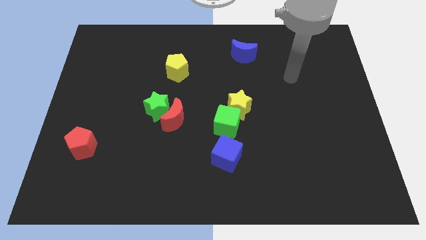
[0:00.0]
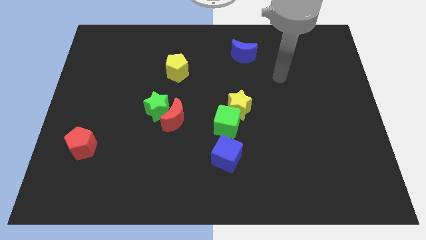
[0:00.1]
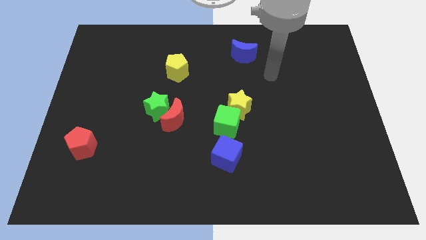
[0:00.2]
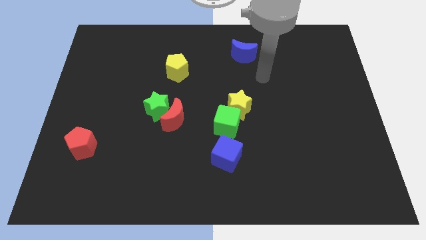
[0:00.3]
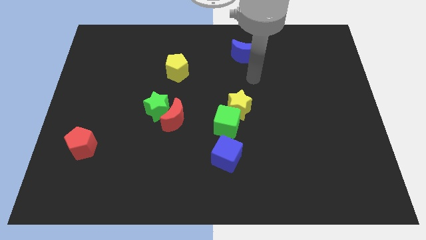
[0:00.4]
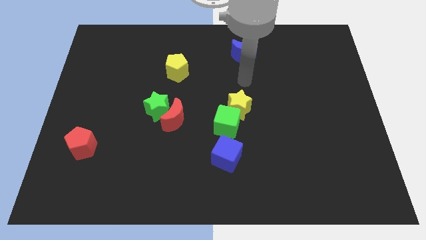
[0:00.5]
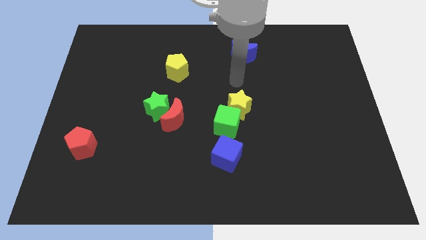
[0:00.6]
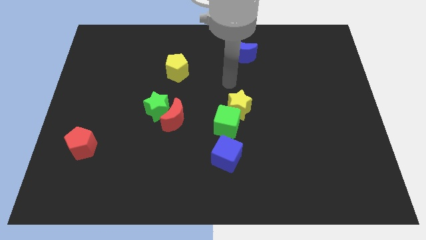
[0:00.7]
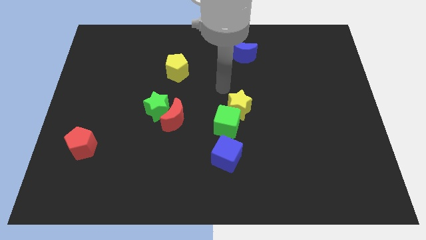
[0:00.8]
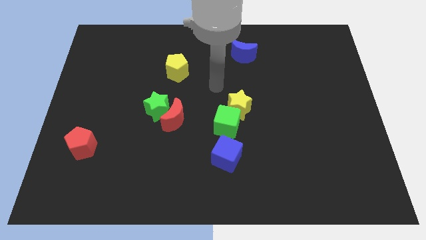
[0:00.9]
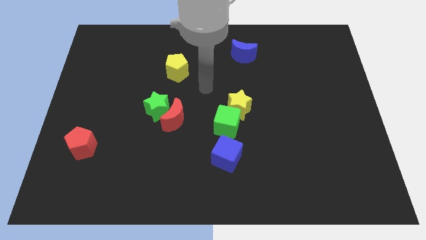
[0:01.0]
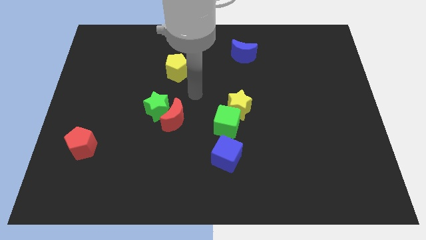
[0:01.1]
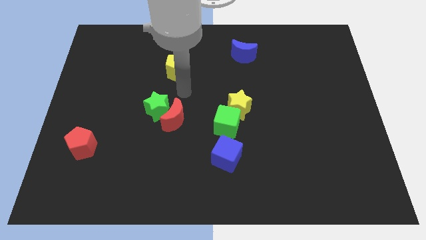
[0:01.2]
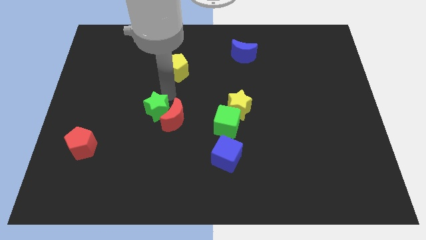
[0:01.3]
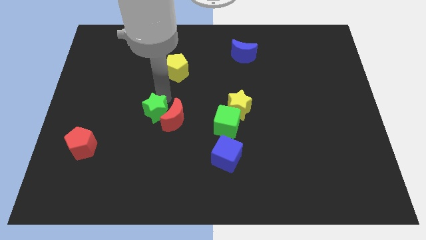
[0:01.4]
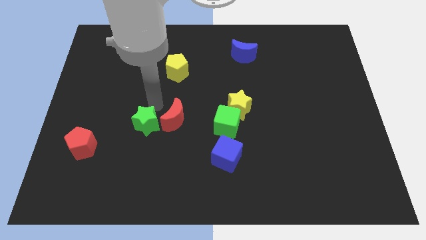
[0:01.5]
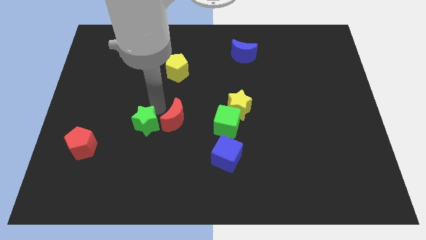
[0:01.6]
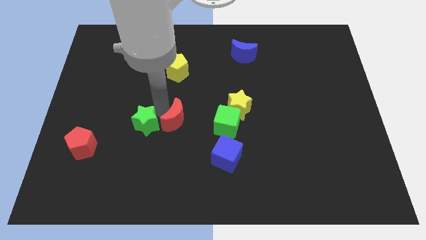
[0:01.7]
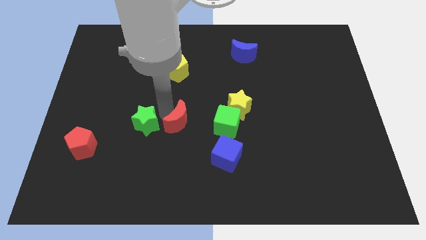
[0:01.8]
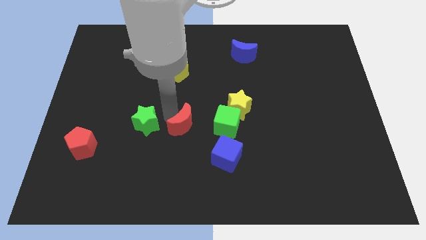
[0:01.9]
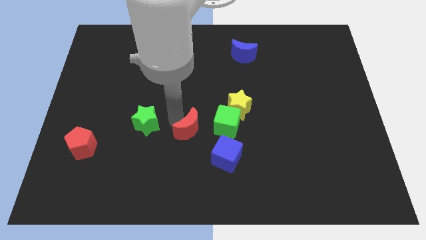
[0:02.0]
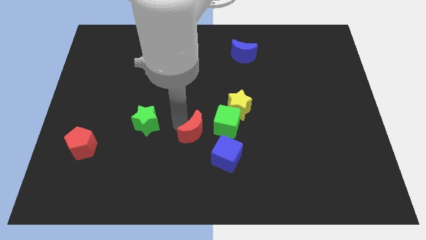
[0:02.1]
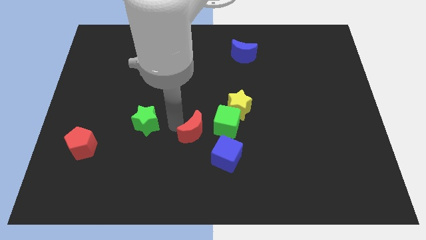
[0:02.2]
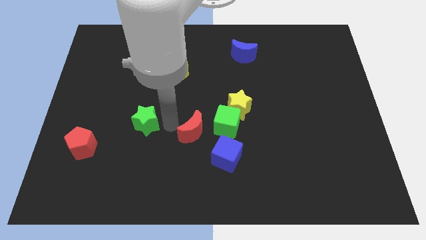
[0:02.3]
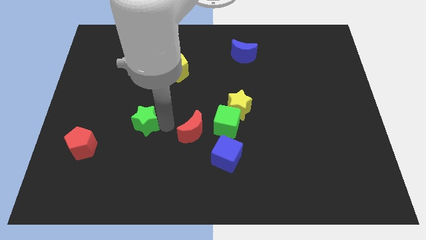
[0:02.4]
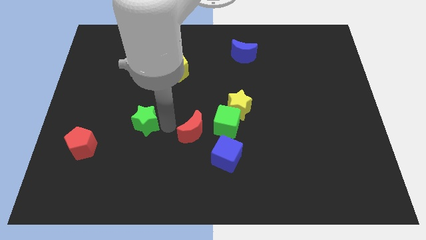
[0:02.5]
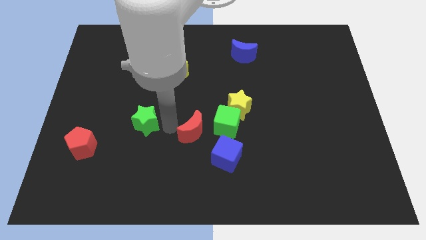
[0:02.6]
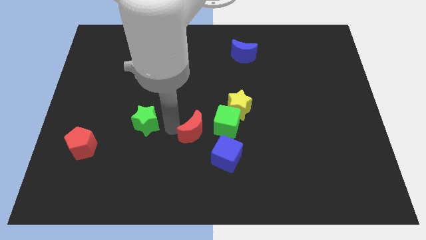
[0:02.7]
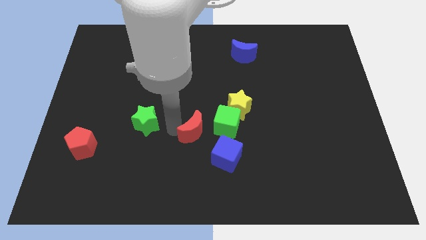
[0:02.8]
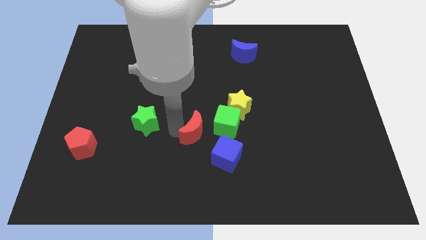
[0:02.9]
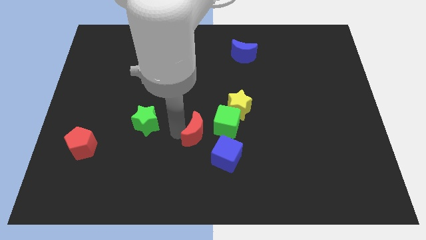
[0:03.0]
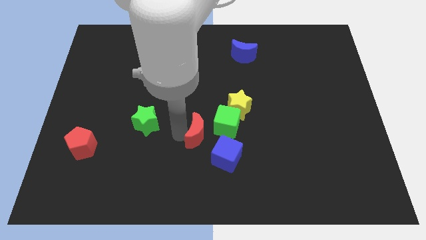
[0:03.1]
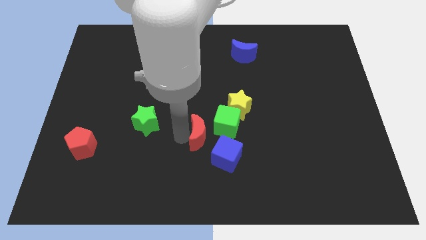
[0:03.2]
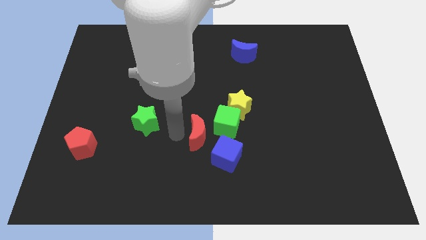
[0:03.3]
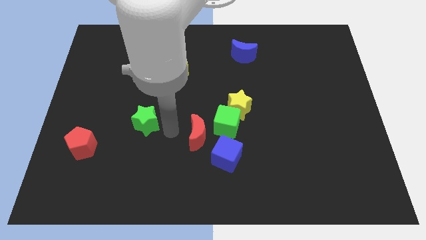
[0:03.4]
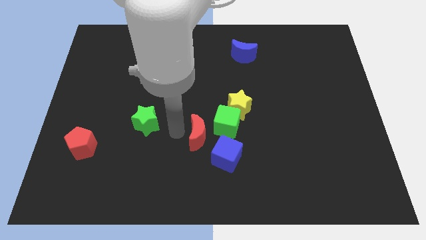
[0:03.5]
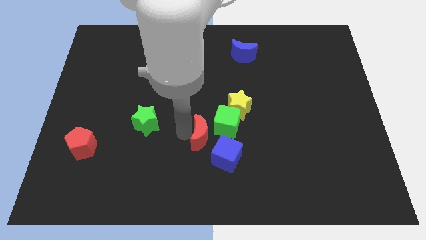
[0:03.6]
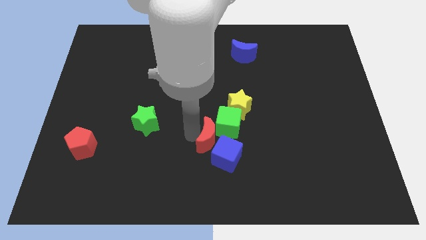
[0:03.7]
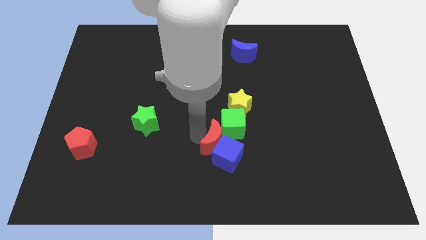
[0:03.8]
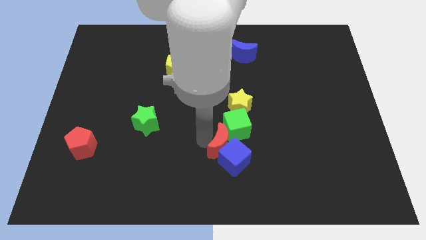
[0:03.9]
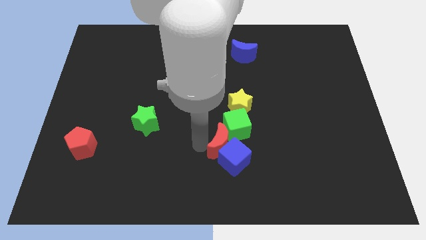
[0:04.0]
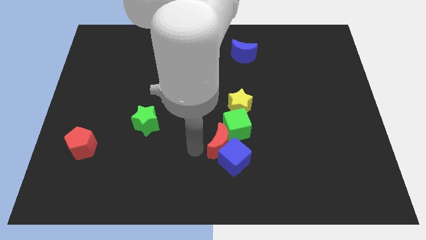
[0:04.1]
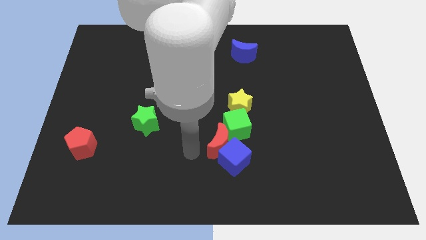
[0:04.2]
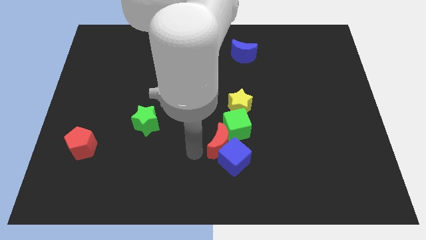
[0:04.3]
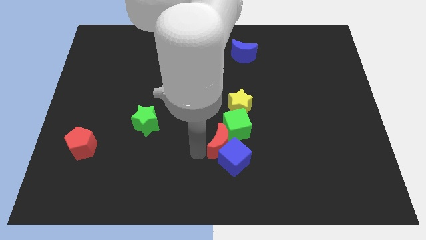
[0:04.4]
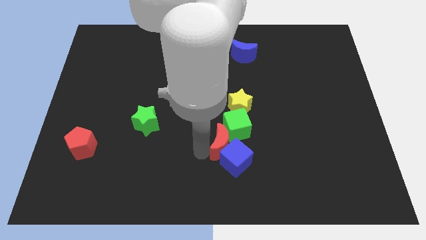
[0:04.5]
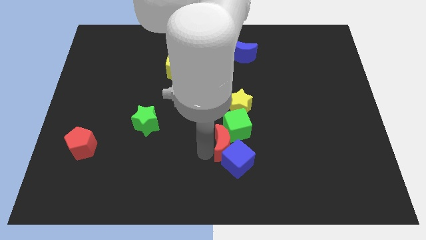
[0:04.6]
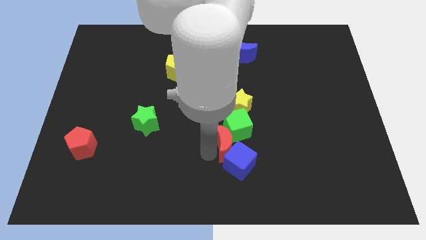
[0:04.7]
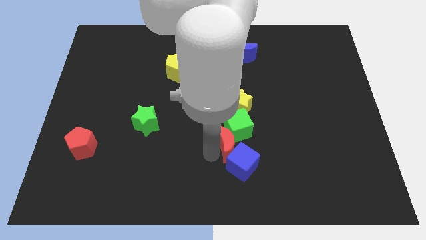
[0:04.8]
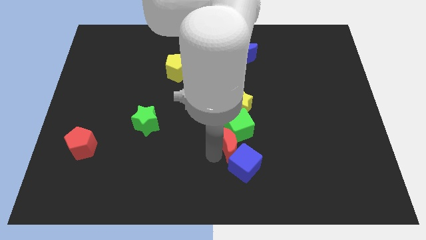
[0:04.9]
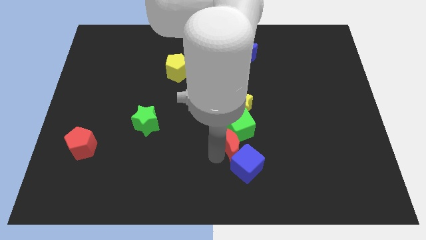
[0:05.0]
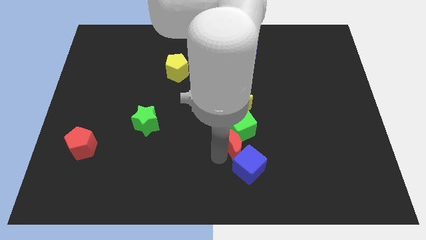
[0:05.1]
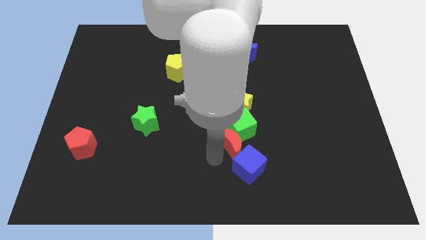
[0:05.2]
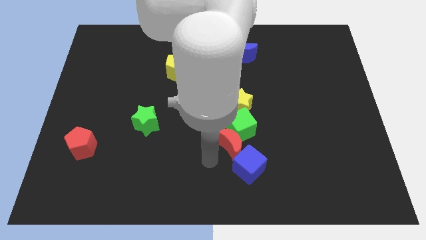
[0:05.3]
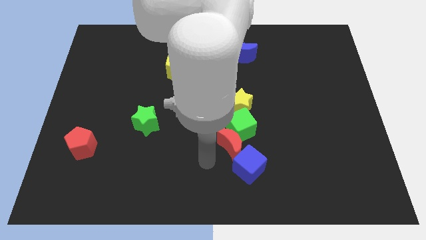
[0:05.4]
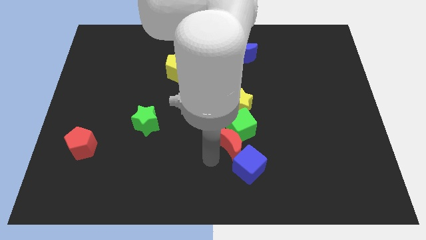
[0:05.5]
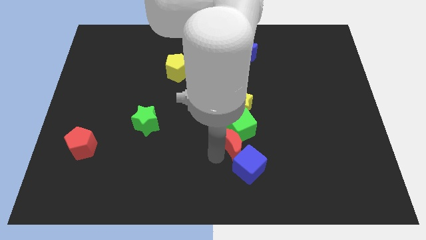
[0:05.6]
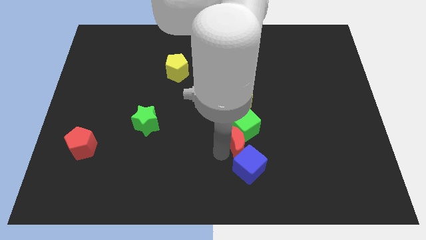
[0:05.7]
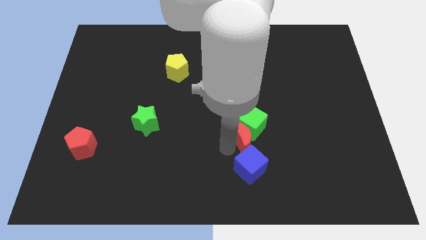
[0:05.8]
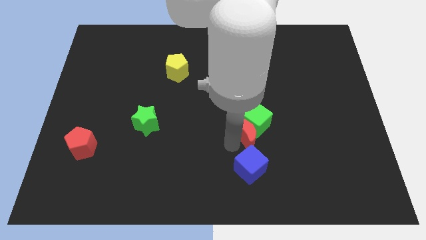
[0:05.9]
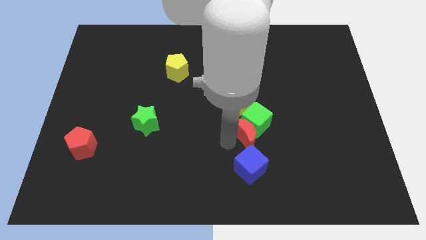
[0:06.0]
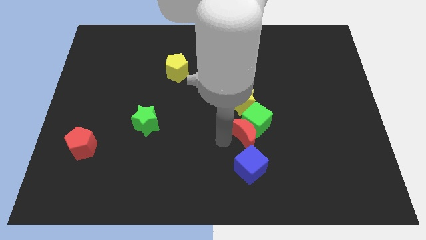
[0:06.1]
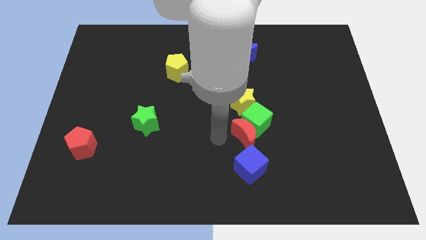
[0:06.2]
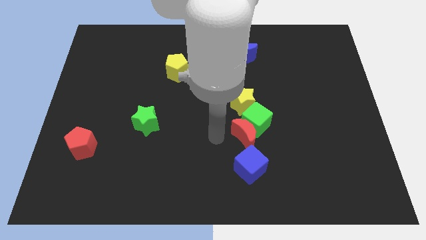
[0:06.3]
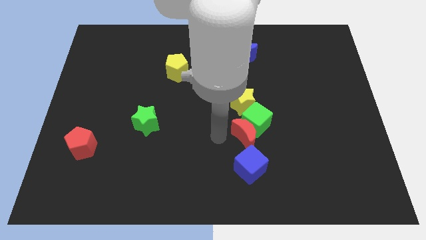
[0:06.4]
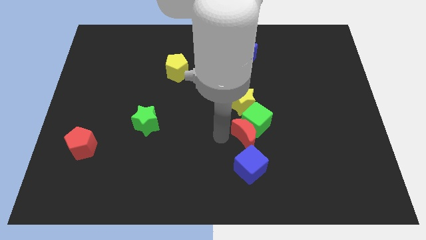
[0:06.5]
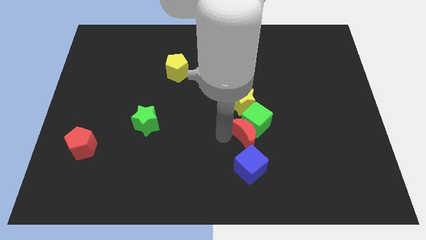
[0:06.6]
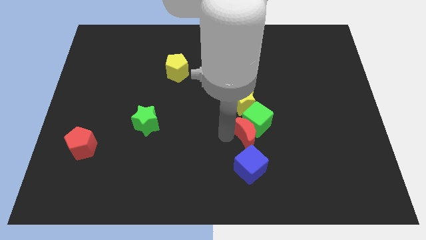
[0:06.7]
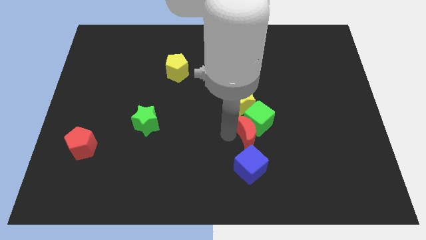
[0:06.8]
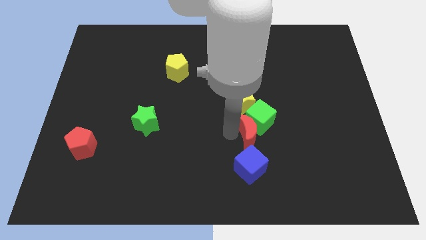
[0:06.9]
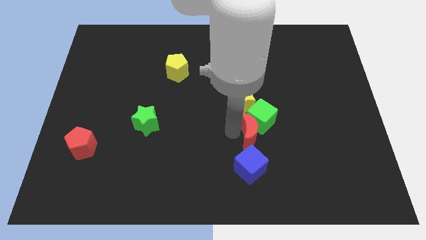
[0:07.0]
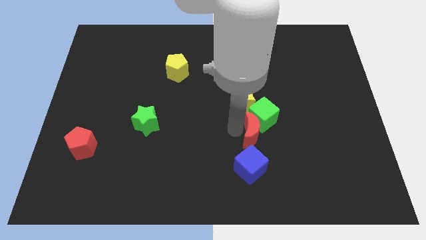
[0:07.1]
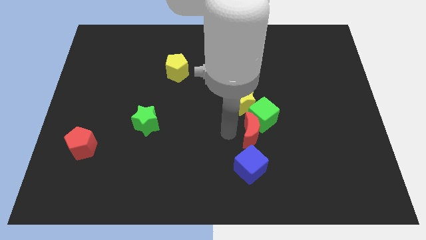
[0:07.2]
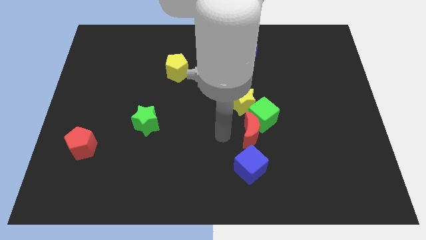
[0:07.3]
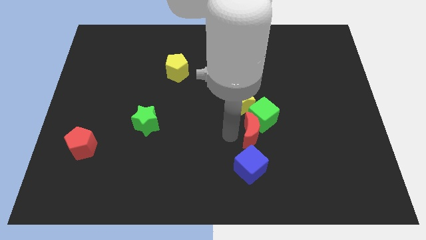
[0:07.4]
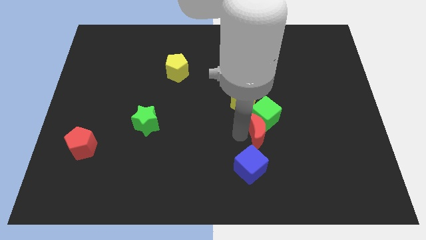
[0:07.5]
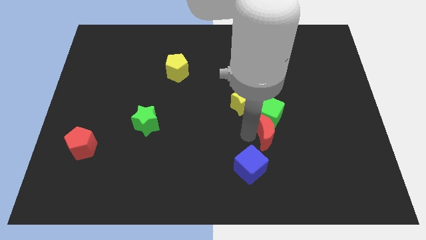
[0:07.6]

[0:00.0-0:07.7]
slide the red moon to the right
